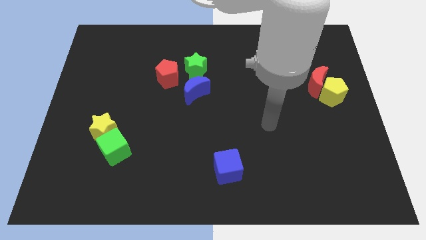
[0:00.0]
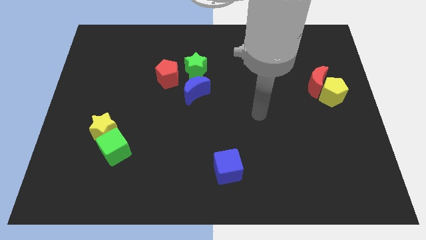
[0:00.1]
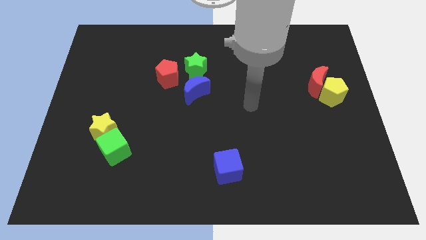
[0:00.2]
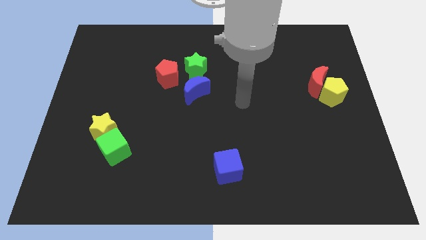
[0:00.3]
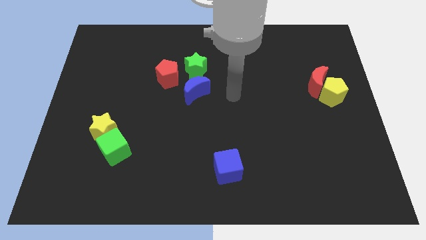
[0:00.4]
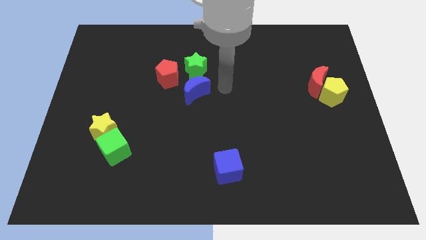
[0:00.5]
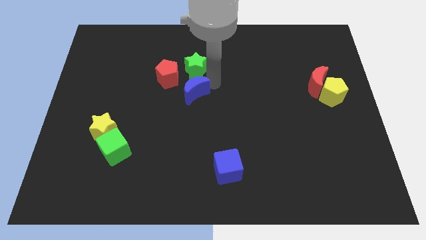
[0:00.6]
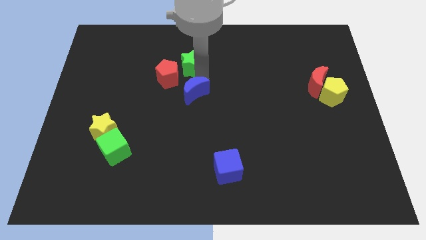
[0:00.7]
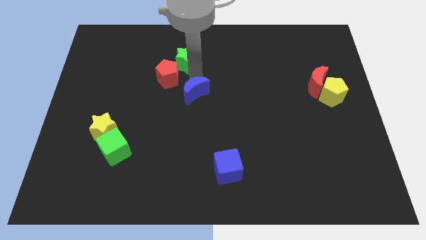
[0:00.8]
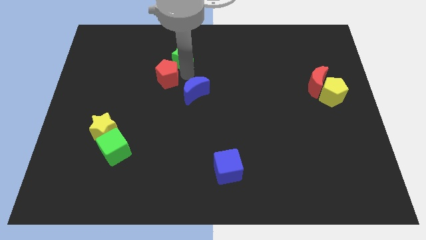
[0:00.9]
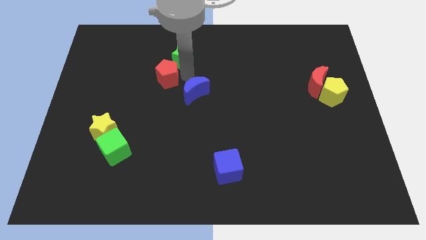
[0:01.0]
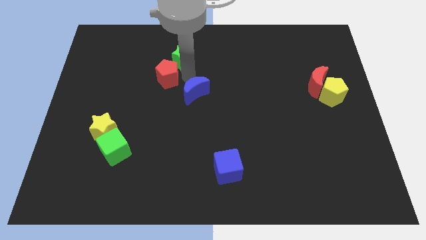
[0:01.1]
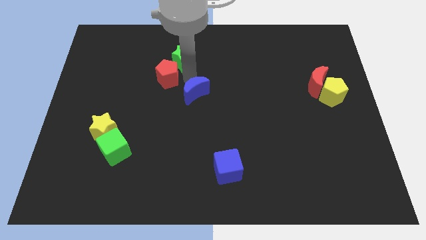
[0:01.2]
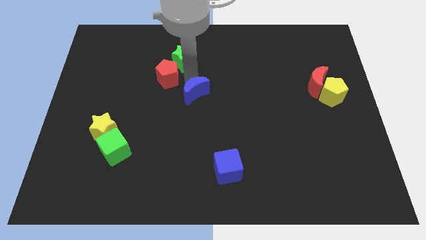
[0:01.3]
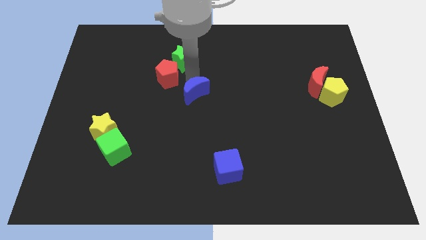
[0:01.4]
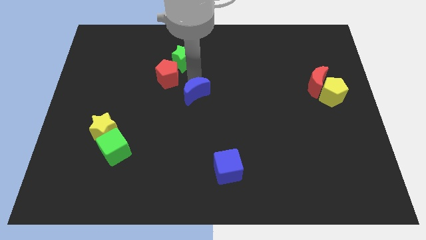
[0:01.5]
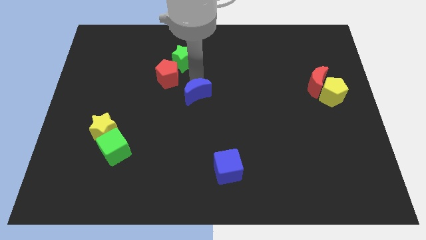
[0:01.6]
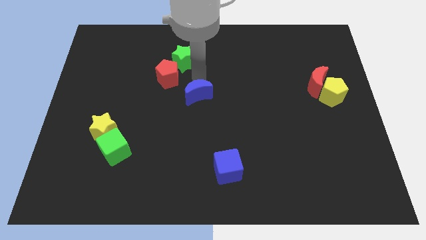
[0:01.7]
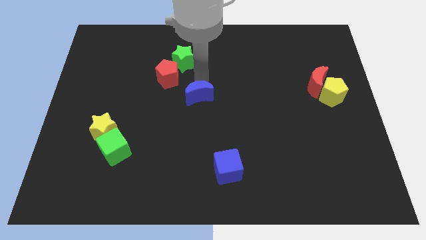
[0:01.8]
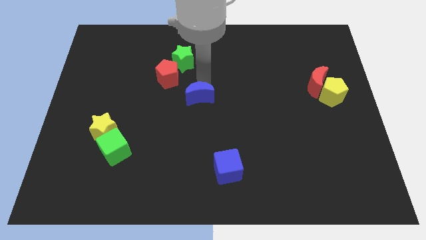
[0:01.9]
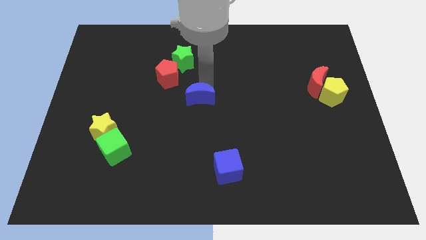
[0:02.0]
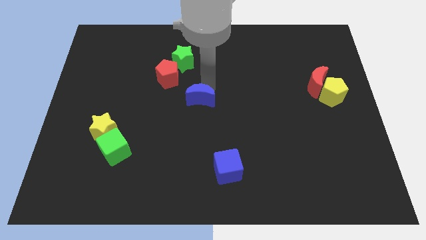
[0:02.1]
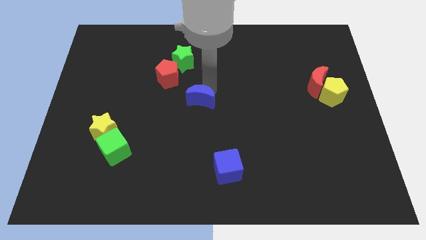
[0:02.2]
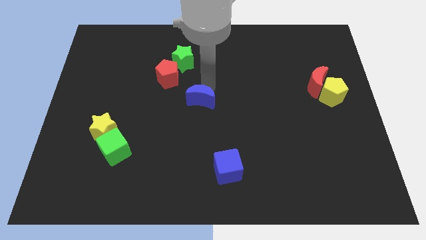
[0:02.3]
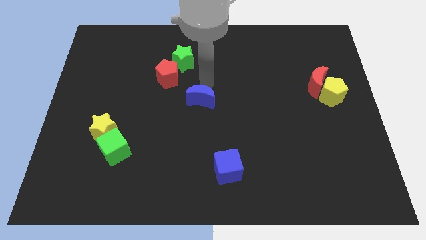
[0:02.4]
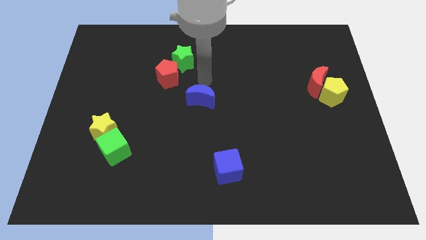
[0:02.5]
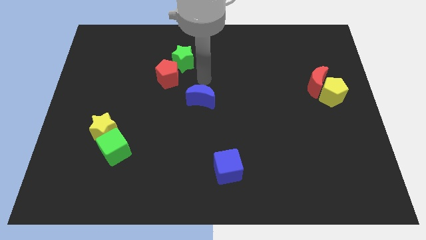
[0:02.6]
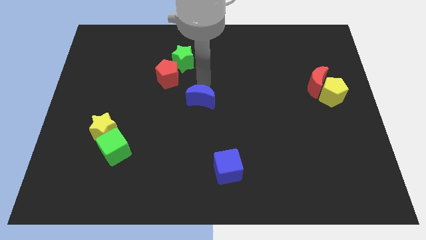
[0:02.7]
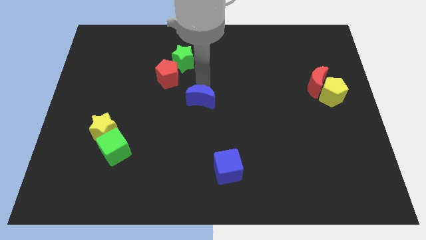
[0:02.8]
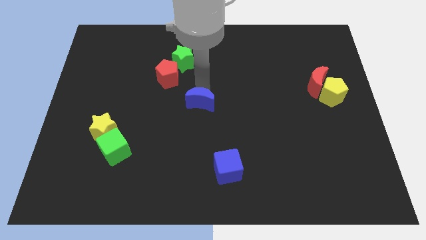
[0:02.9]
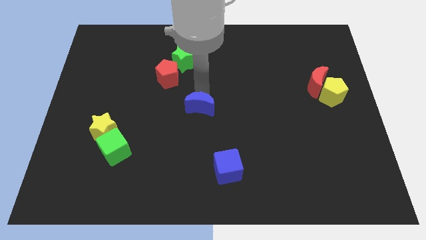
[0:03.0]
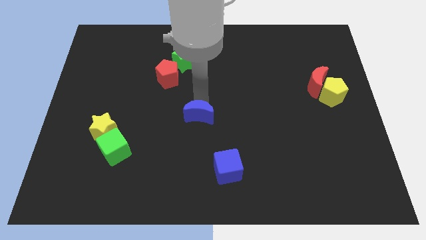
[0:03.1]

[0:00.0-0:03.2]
slightly slide the blue moon downwards

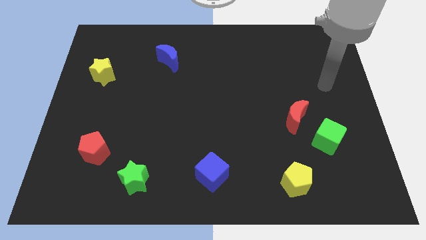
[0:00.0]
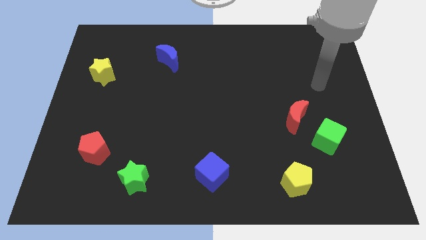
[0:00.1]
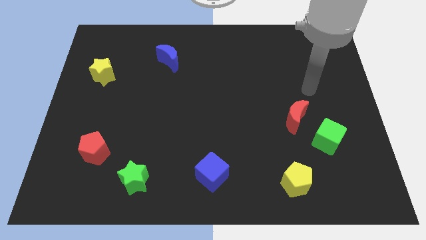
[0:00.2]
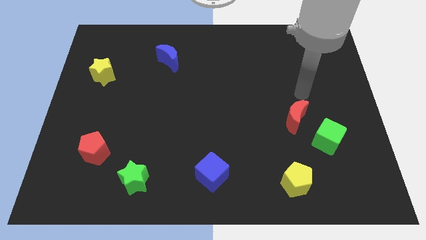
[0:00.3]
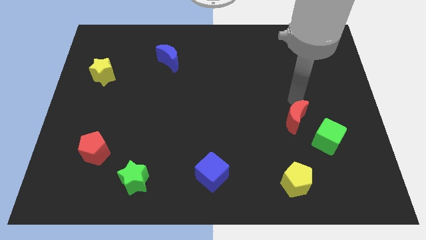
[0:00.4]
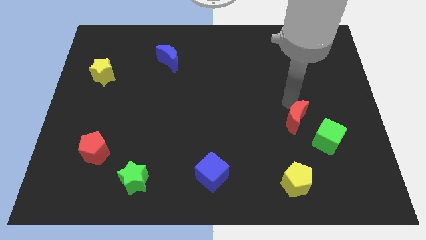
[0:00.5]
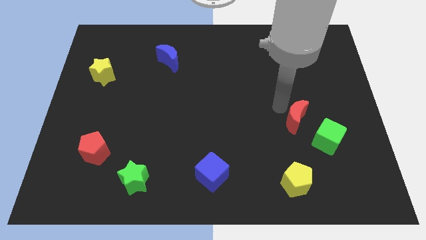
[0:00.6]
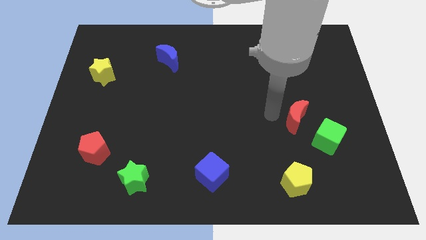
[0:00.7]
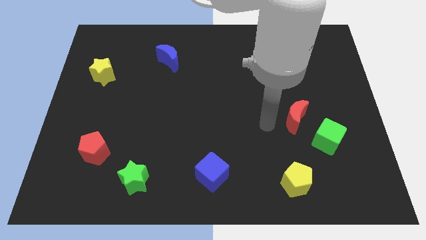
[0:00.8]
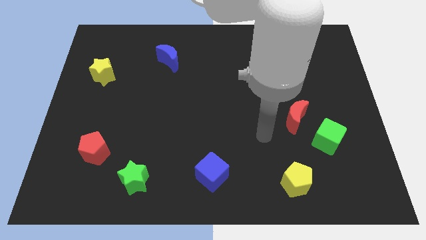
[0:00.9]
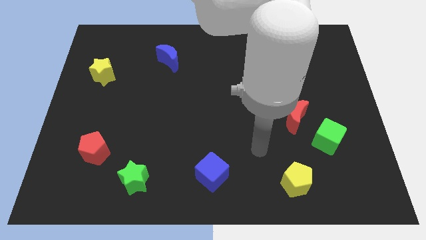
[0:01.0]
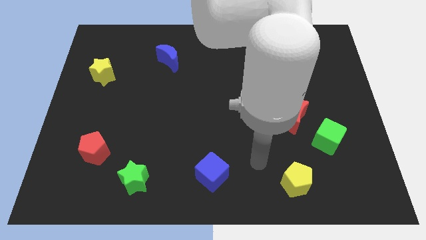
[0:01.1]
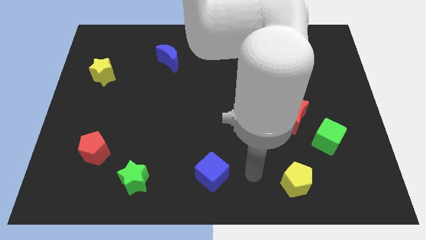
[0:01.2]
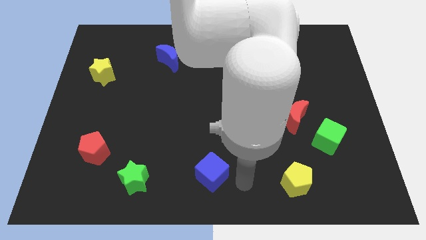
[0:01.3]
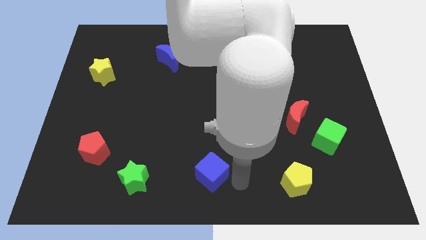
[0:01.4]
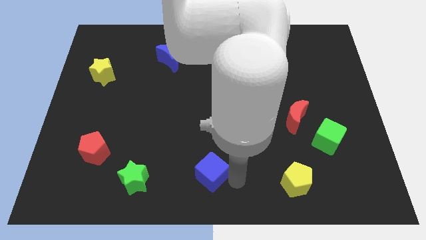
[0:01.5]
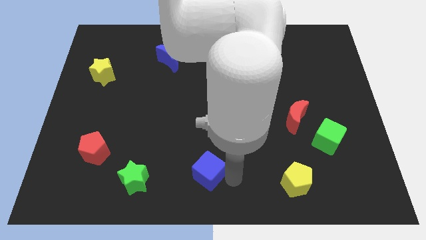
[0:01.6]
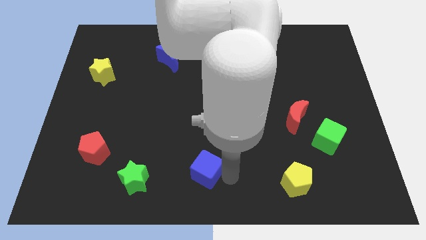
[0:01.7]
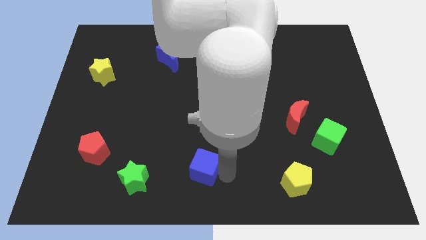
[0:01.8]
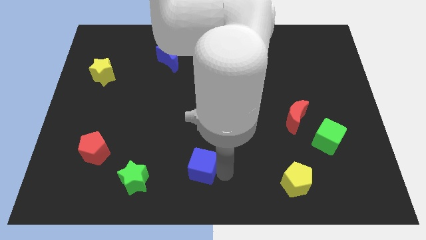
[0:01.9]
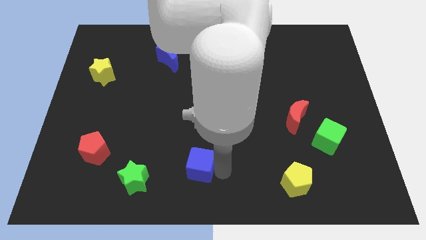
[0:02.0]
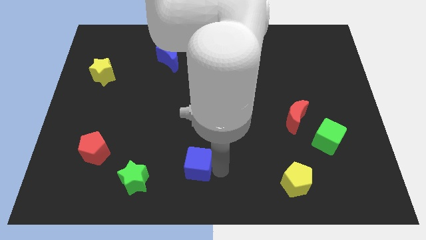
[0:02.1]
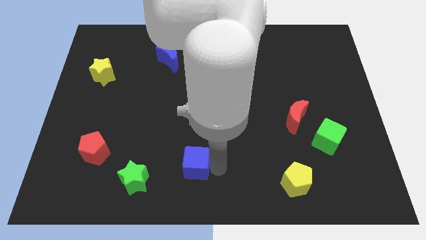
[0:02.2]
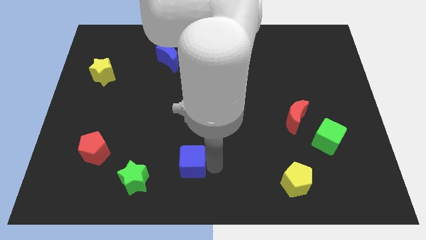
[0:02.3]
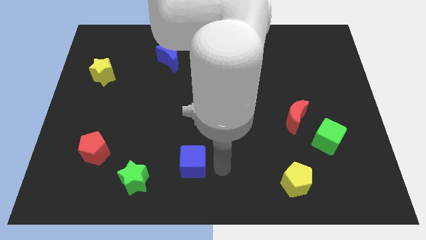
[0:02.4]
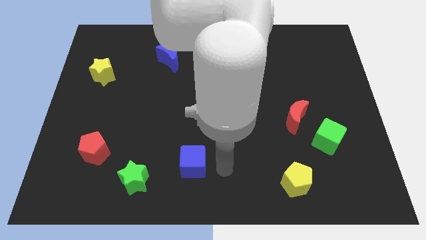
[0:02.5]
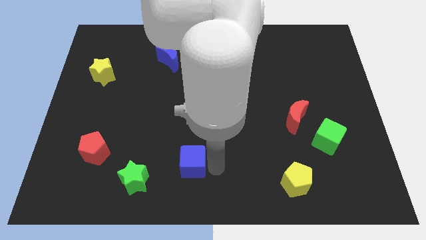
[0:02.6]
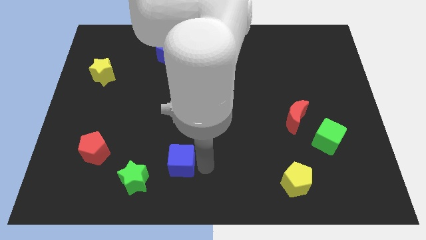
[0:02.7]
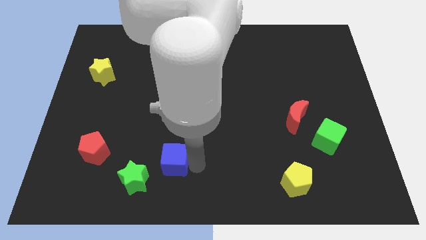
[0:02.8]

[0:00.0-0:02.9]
slightly push the blue cube left

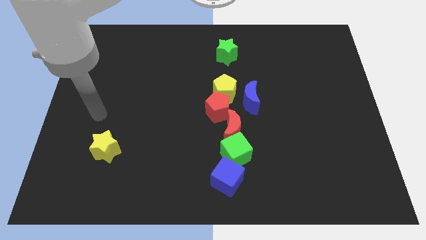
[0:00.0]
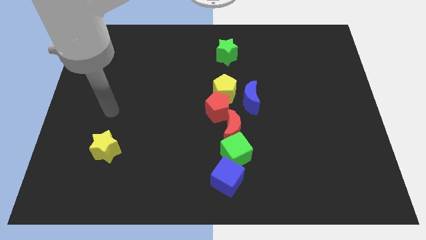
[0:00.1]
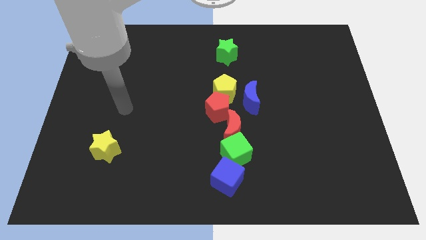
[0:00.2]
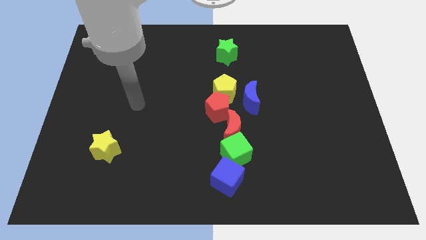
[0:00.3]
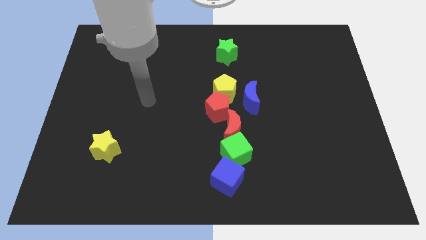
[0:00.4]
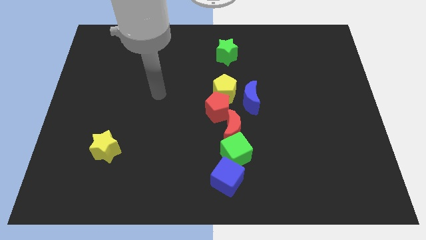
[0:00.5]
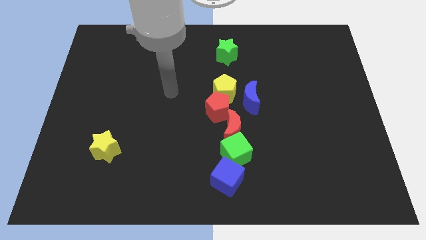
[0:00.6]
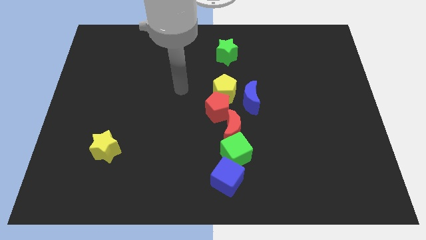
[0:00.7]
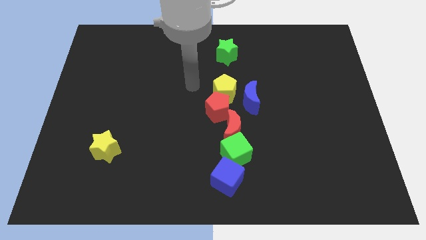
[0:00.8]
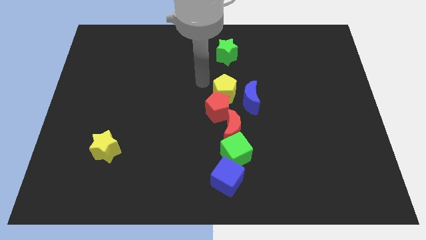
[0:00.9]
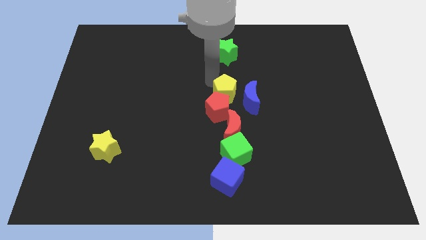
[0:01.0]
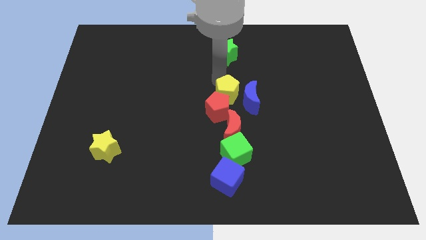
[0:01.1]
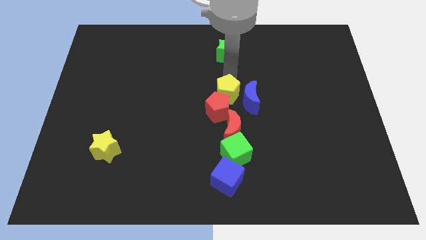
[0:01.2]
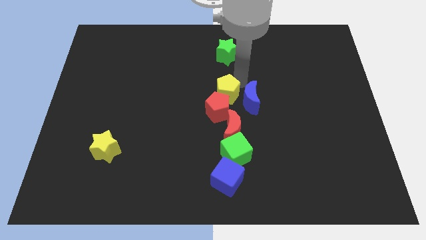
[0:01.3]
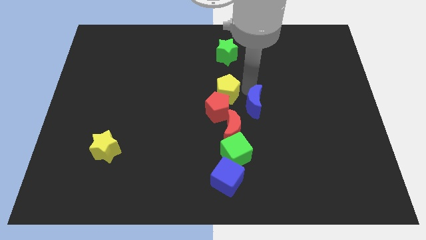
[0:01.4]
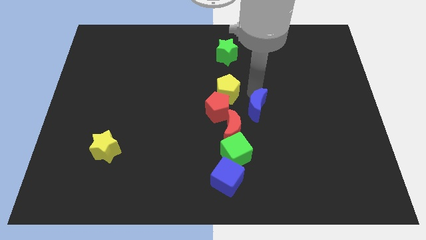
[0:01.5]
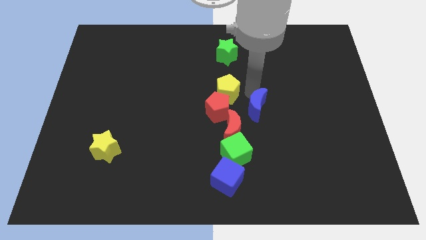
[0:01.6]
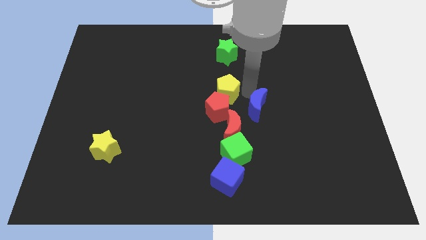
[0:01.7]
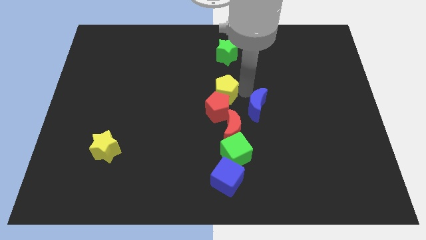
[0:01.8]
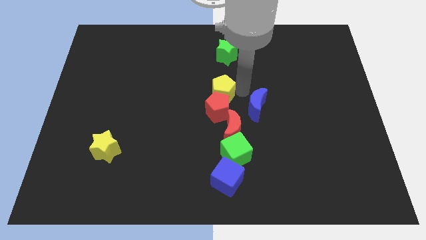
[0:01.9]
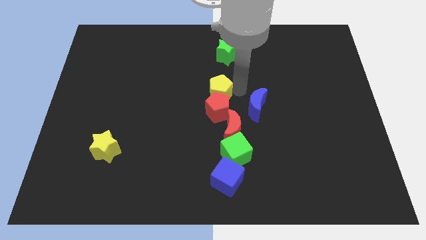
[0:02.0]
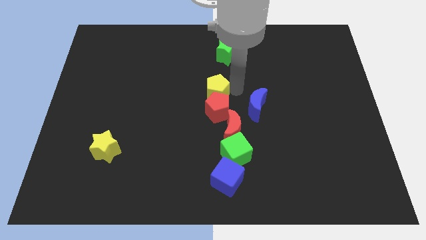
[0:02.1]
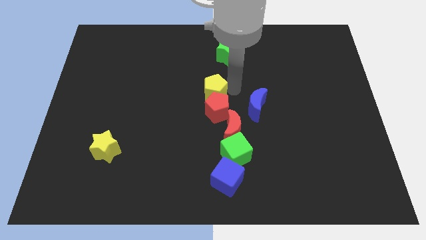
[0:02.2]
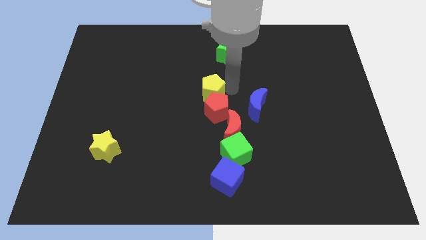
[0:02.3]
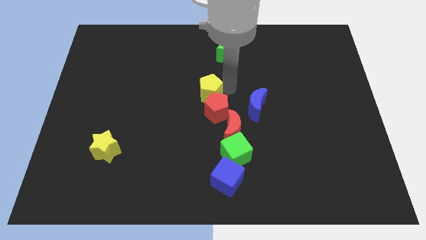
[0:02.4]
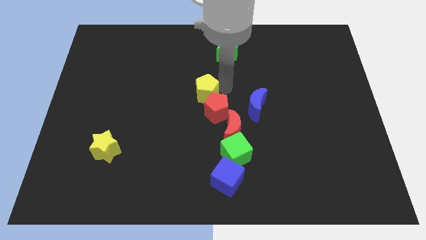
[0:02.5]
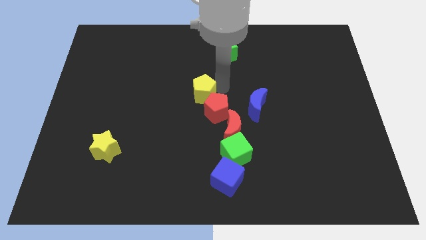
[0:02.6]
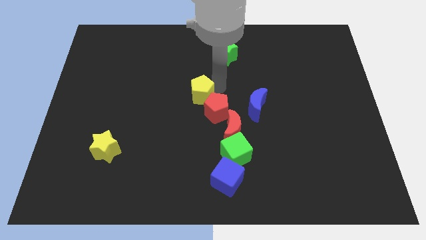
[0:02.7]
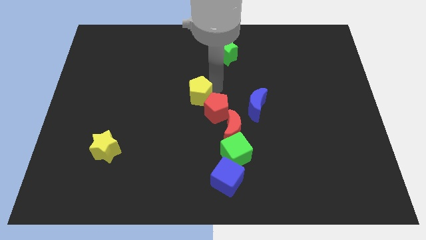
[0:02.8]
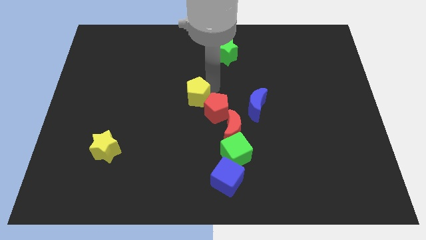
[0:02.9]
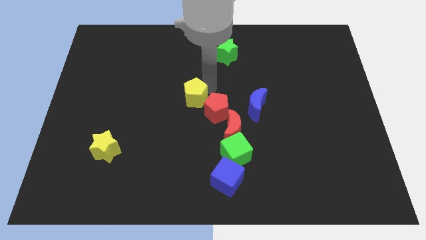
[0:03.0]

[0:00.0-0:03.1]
slightly slide the yellow pentagon left
